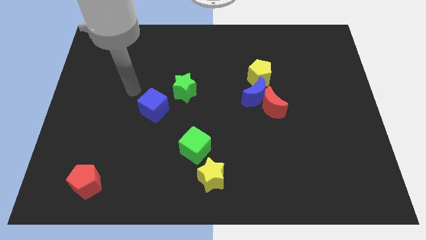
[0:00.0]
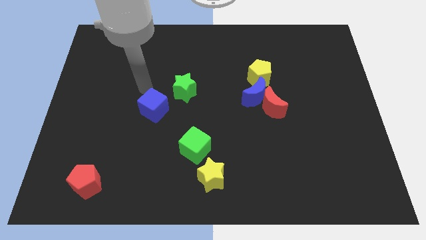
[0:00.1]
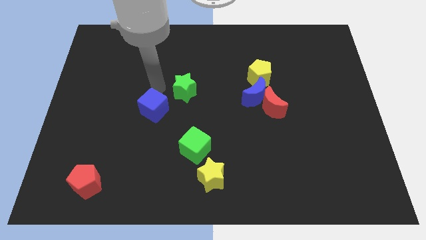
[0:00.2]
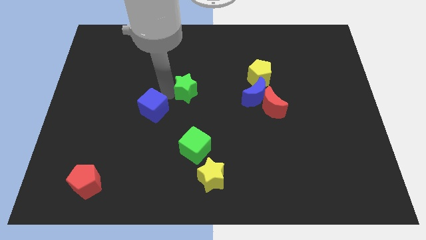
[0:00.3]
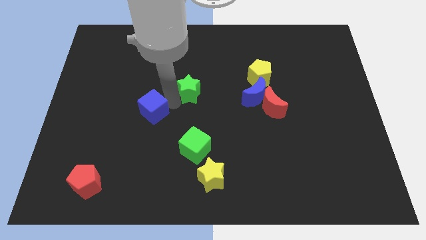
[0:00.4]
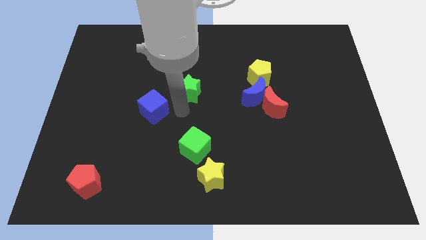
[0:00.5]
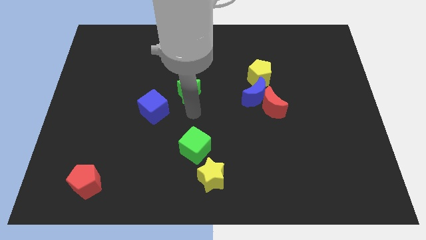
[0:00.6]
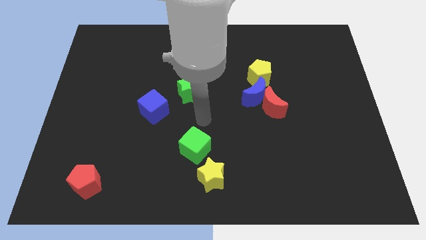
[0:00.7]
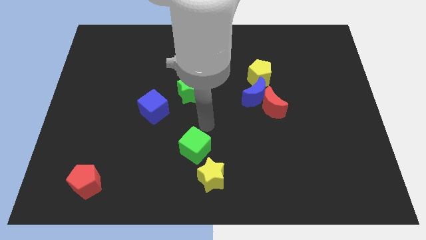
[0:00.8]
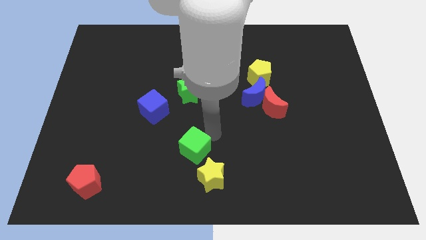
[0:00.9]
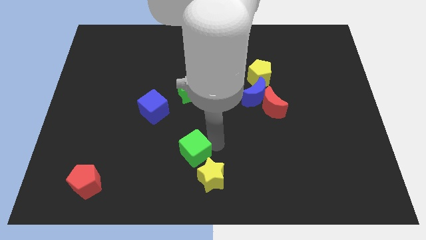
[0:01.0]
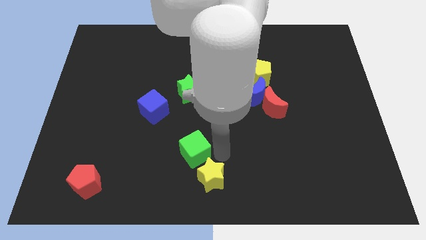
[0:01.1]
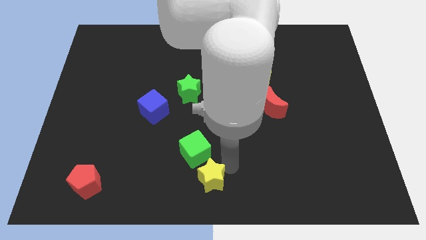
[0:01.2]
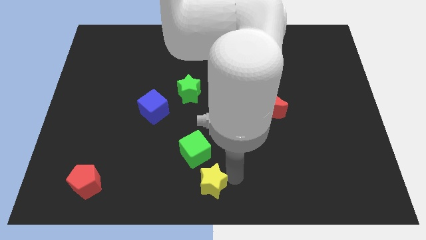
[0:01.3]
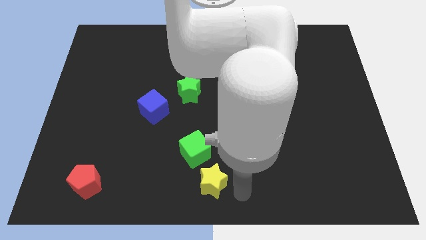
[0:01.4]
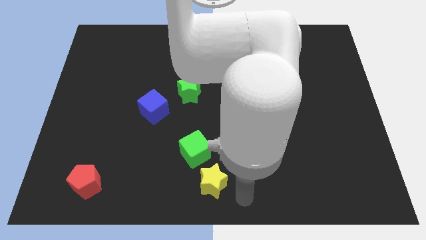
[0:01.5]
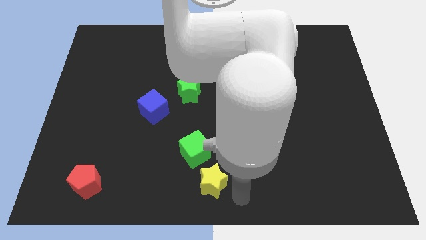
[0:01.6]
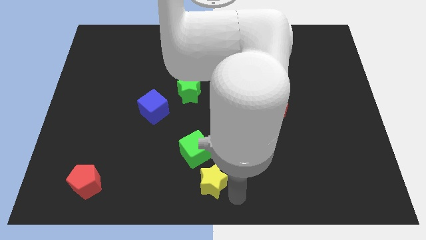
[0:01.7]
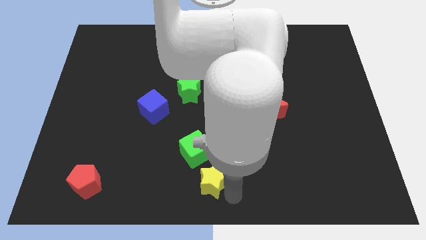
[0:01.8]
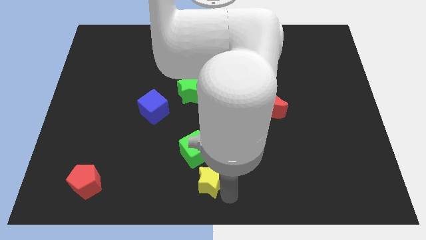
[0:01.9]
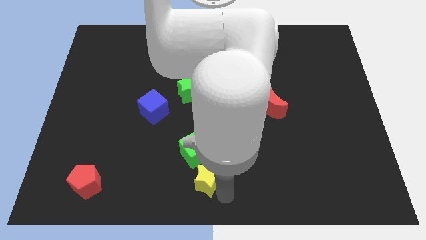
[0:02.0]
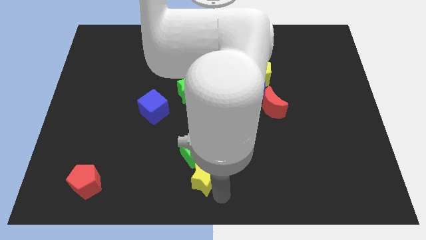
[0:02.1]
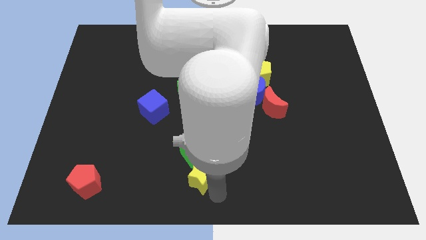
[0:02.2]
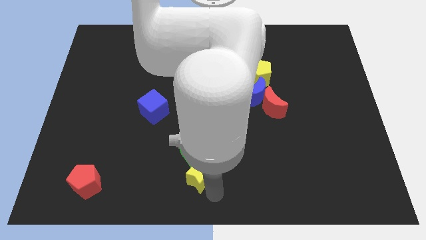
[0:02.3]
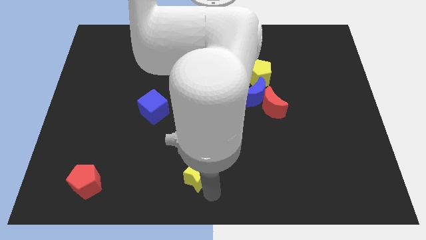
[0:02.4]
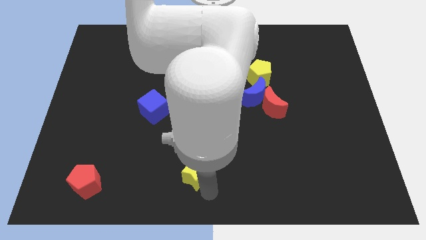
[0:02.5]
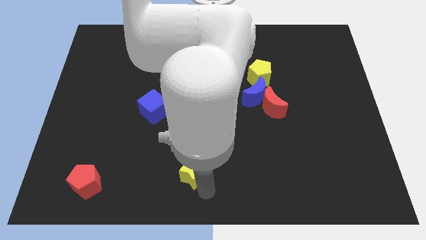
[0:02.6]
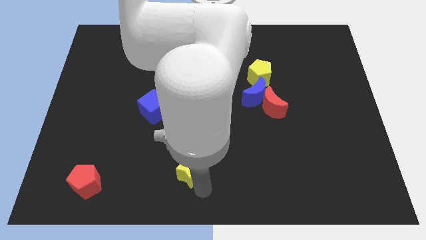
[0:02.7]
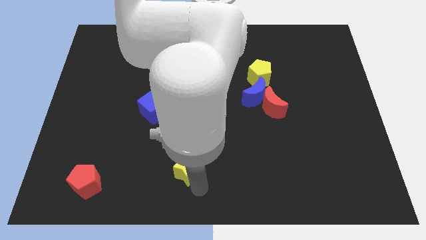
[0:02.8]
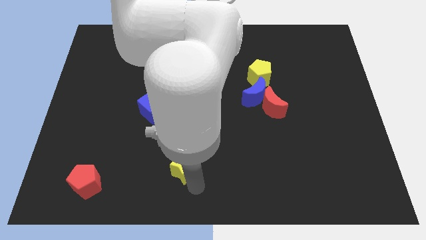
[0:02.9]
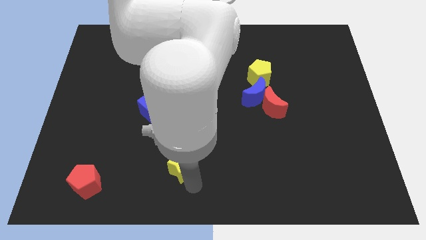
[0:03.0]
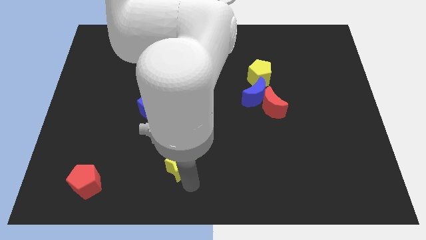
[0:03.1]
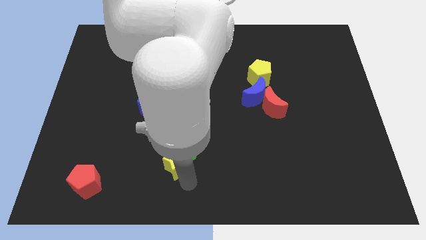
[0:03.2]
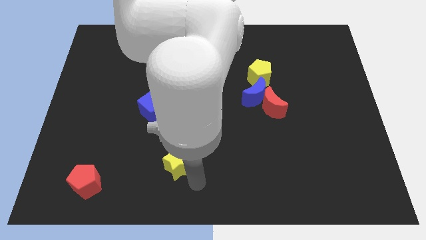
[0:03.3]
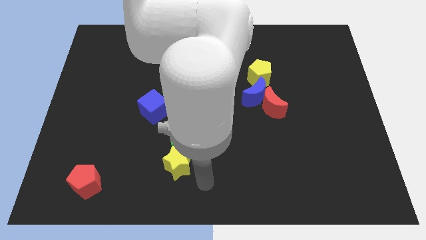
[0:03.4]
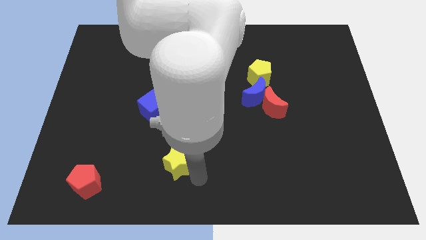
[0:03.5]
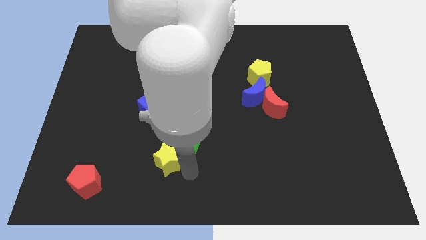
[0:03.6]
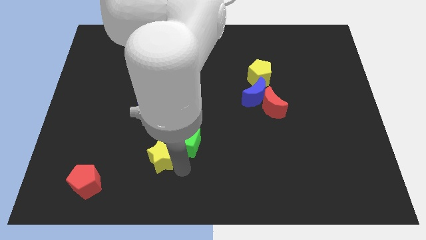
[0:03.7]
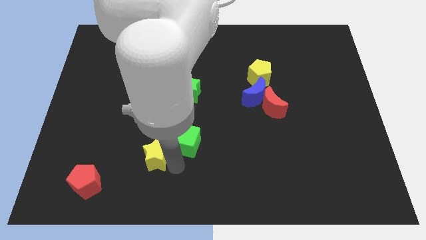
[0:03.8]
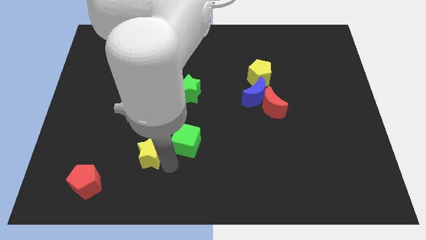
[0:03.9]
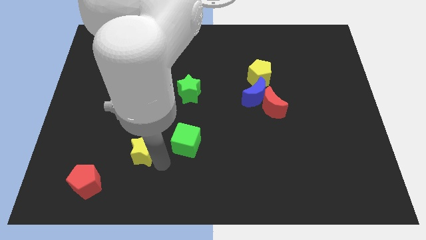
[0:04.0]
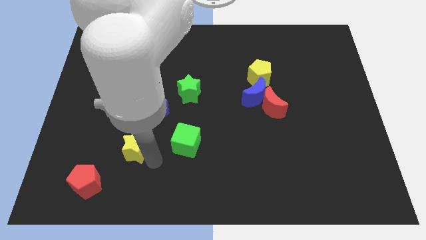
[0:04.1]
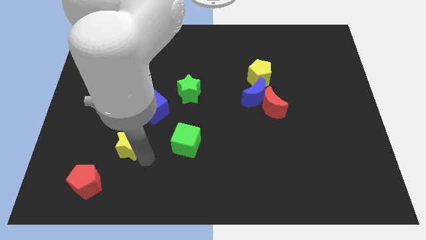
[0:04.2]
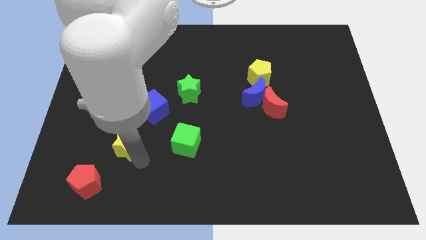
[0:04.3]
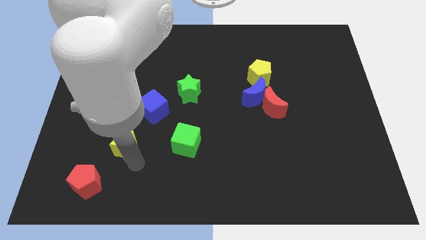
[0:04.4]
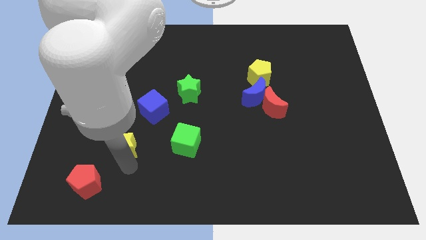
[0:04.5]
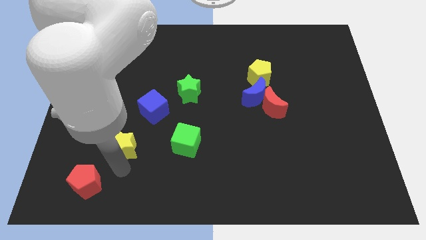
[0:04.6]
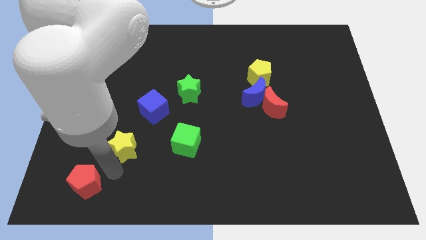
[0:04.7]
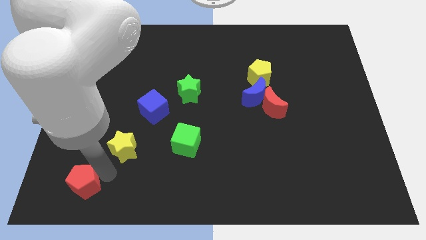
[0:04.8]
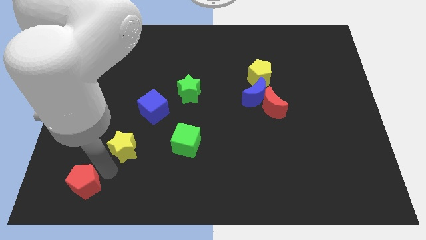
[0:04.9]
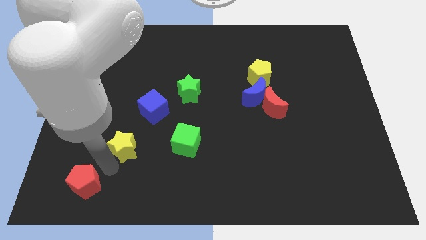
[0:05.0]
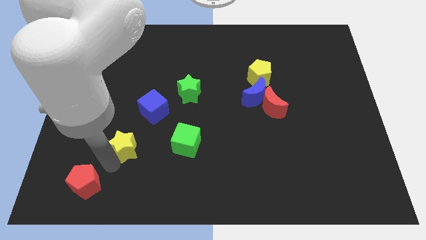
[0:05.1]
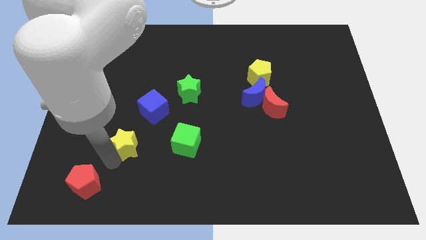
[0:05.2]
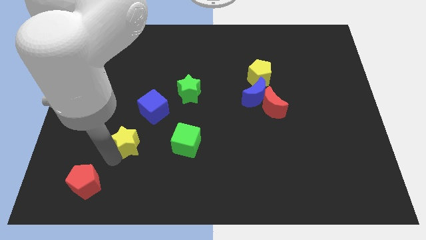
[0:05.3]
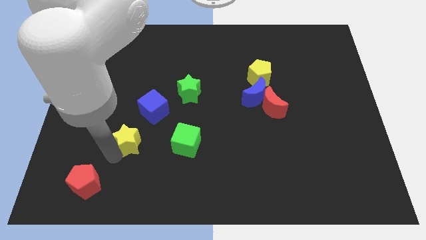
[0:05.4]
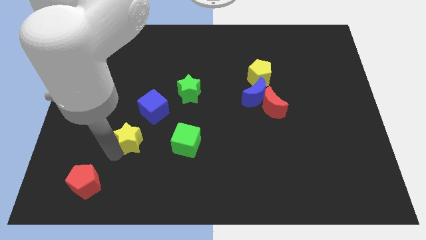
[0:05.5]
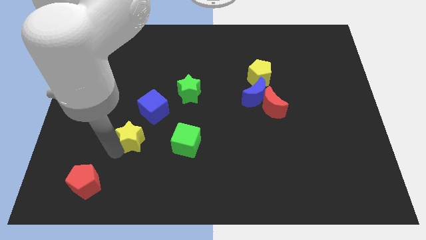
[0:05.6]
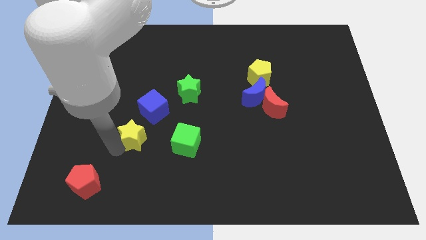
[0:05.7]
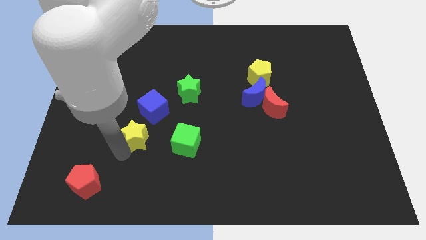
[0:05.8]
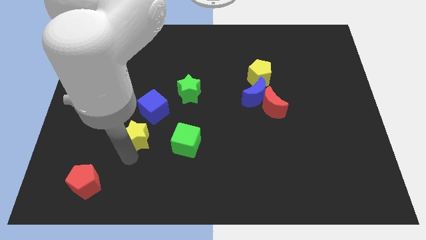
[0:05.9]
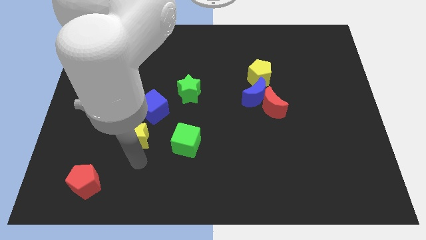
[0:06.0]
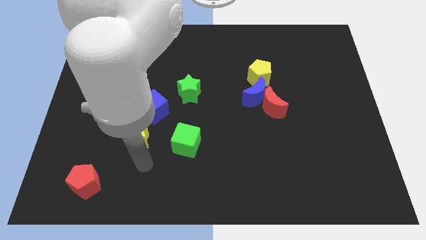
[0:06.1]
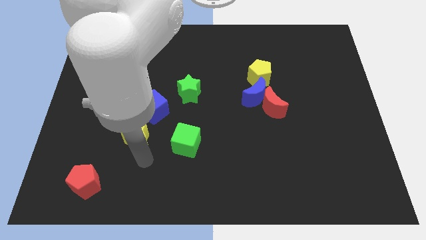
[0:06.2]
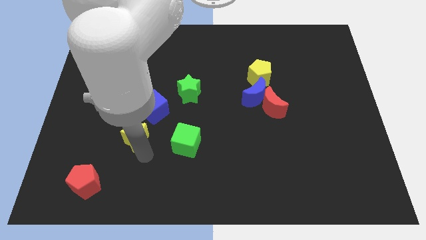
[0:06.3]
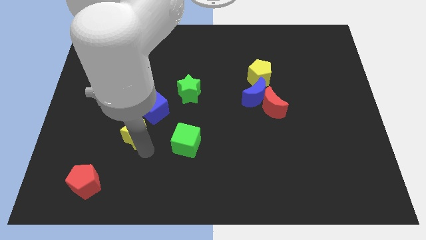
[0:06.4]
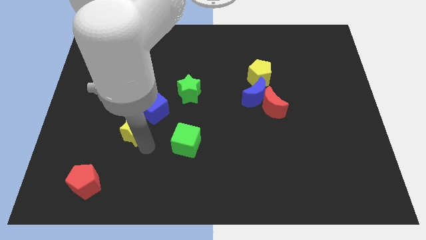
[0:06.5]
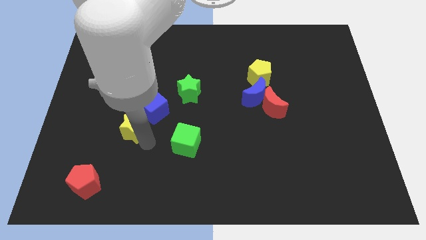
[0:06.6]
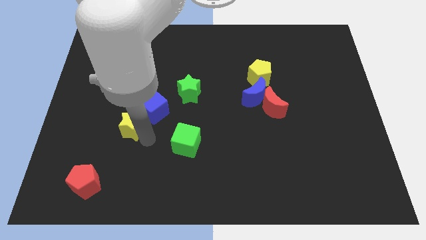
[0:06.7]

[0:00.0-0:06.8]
slide the yellow star up and to the left diagonally

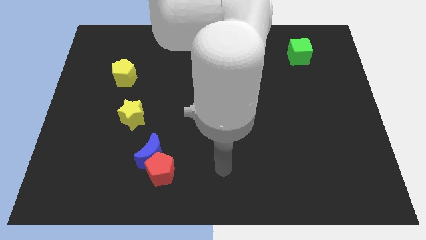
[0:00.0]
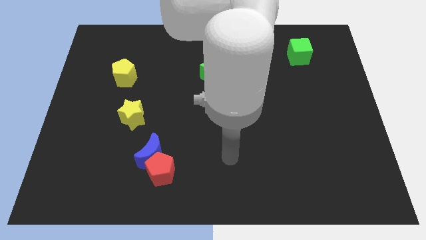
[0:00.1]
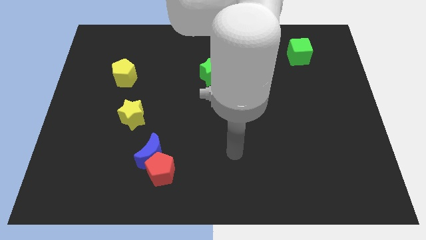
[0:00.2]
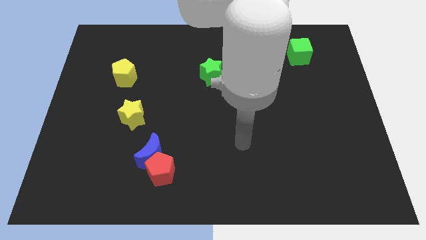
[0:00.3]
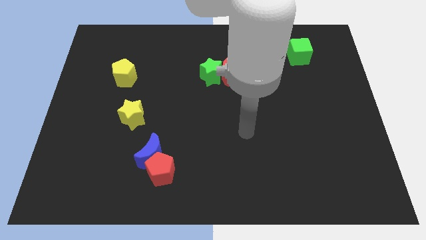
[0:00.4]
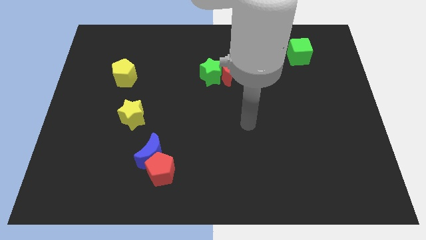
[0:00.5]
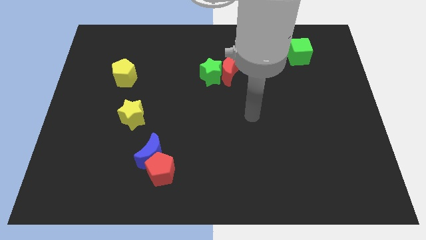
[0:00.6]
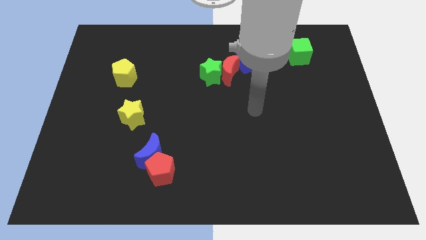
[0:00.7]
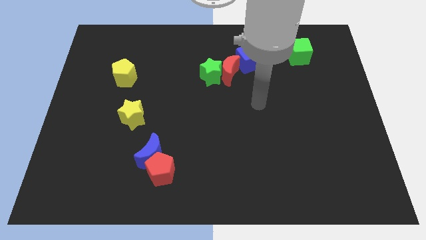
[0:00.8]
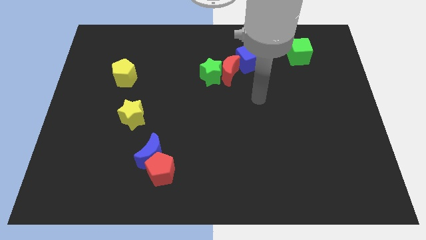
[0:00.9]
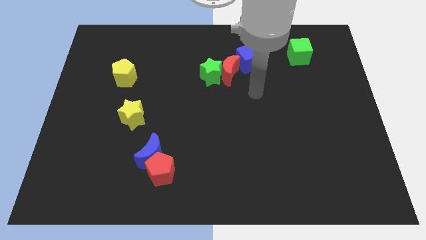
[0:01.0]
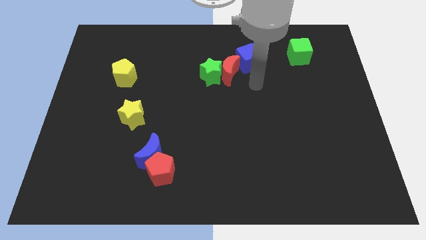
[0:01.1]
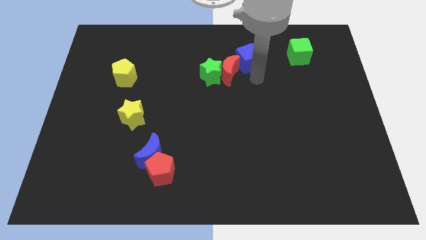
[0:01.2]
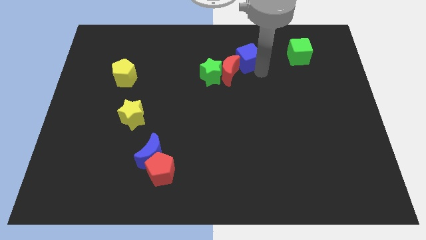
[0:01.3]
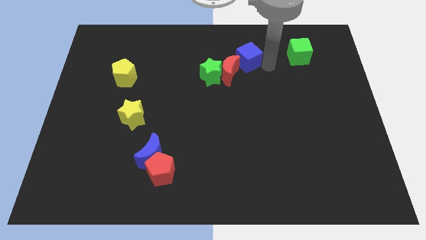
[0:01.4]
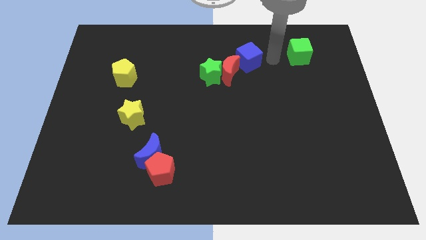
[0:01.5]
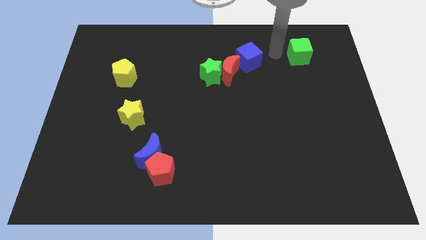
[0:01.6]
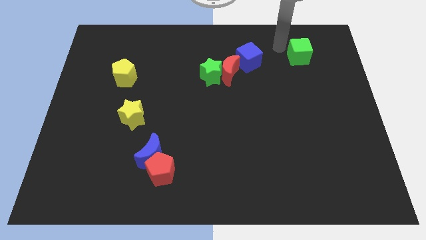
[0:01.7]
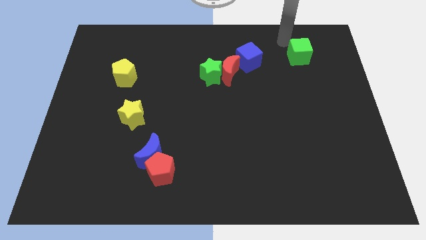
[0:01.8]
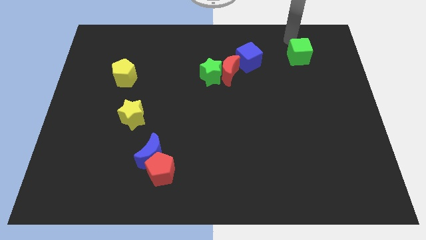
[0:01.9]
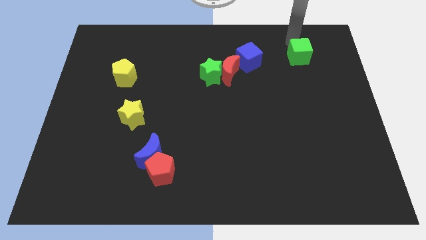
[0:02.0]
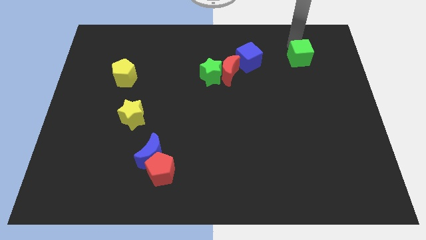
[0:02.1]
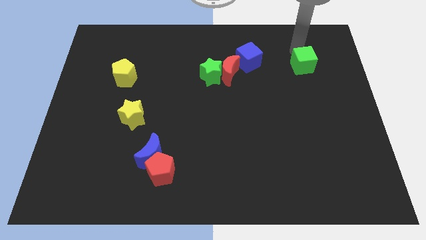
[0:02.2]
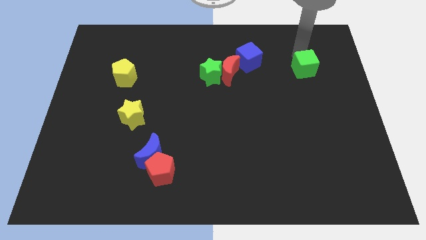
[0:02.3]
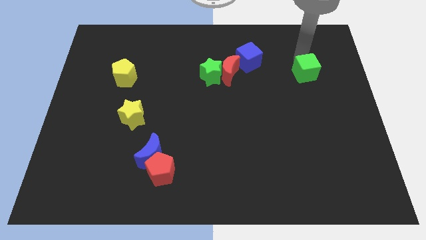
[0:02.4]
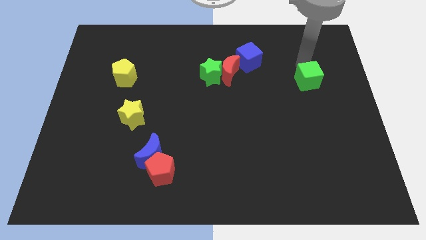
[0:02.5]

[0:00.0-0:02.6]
push the green cube downwards somewhat
